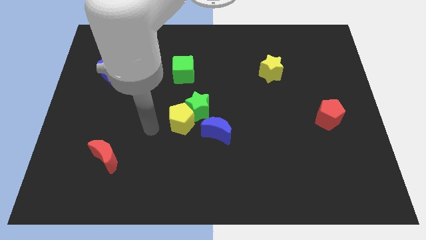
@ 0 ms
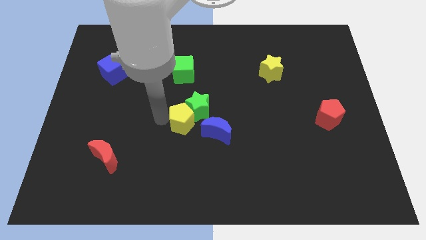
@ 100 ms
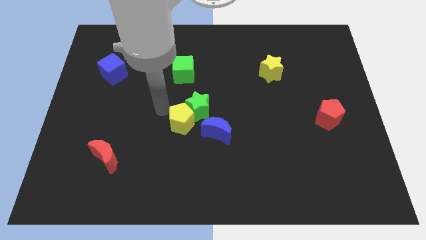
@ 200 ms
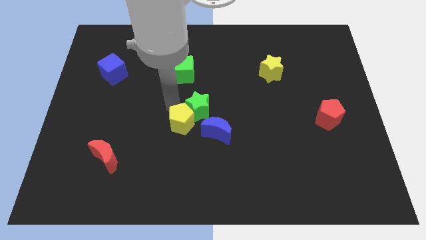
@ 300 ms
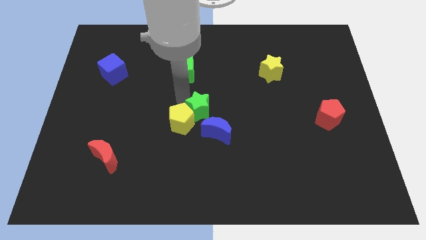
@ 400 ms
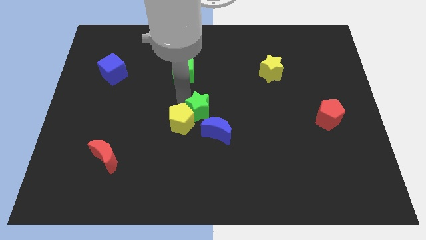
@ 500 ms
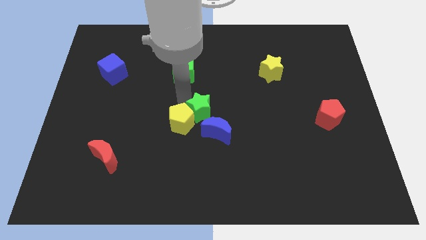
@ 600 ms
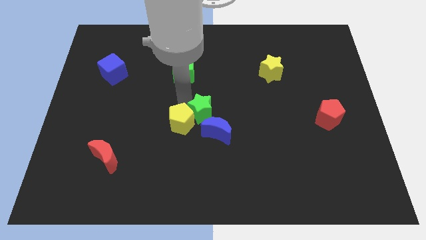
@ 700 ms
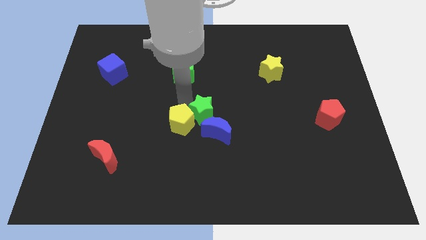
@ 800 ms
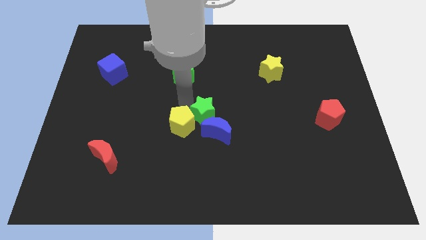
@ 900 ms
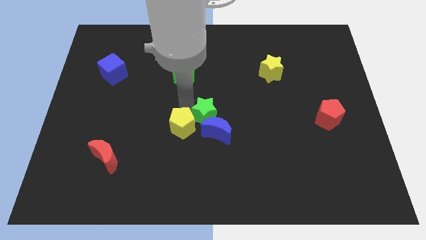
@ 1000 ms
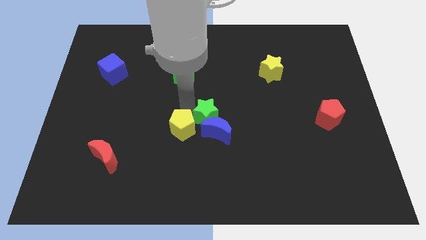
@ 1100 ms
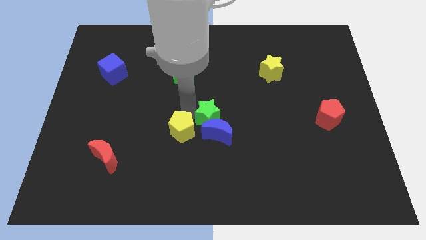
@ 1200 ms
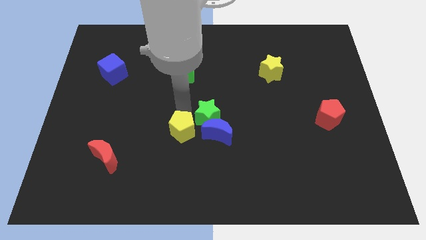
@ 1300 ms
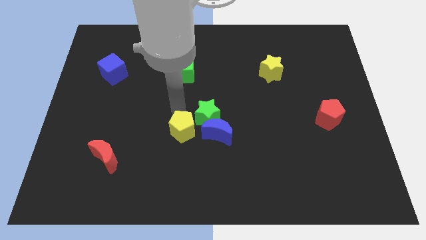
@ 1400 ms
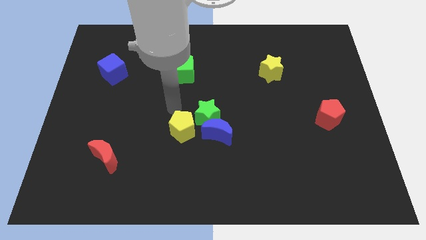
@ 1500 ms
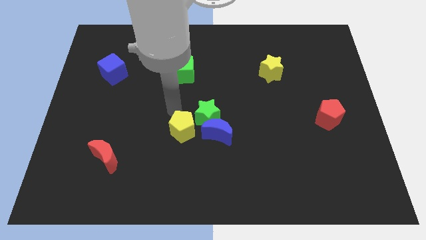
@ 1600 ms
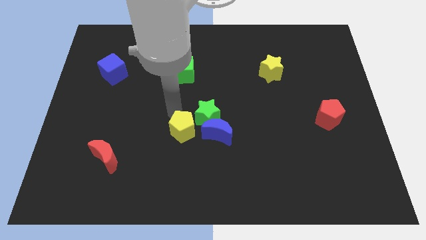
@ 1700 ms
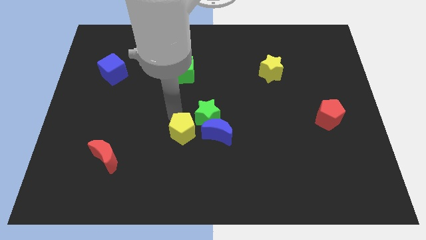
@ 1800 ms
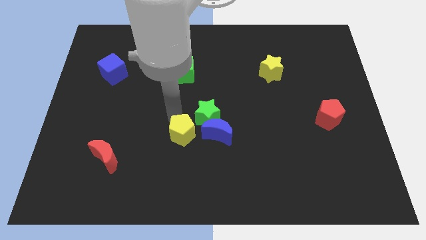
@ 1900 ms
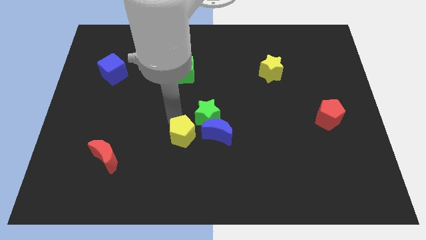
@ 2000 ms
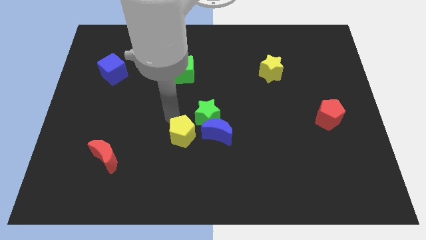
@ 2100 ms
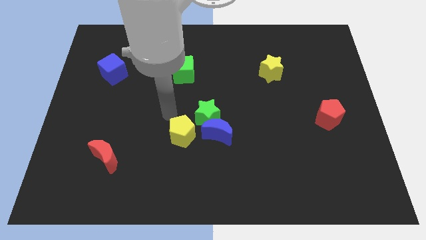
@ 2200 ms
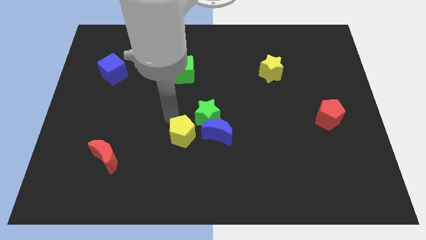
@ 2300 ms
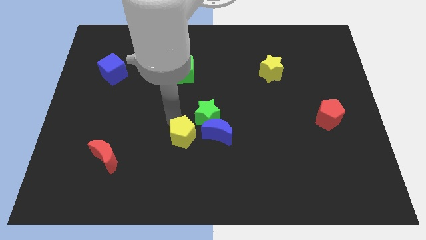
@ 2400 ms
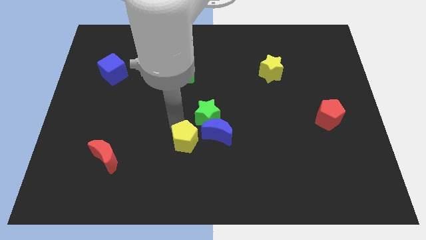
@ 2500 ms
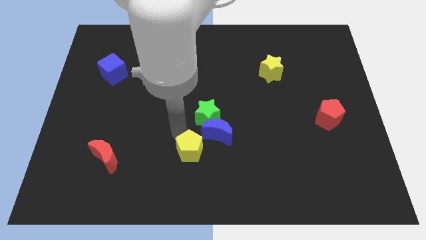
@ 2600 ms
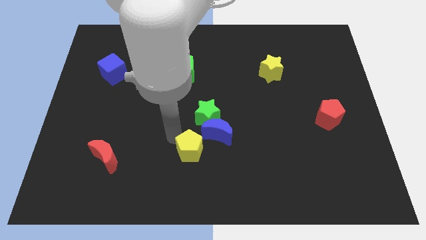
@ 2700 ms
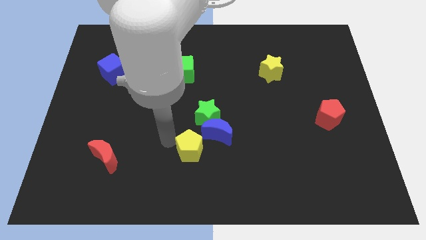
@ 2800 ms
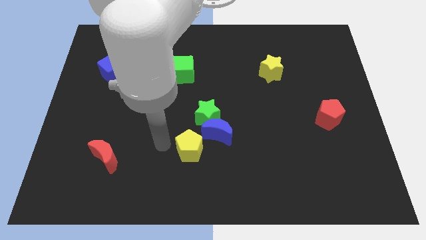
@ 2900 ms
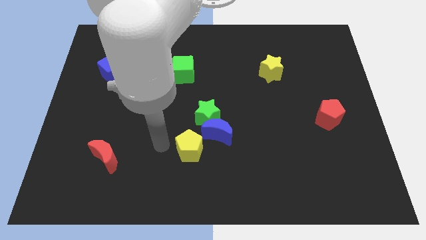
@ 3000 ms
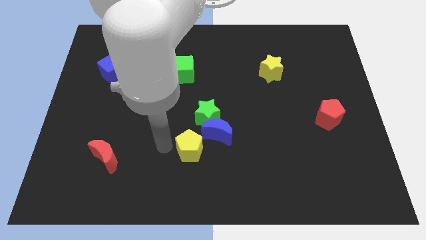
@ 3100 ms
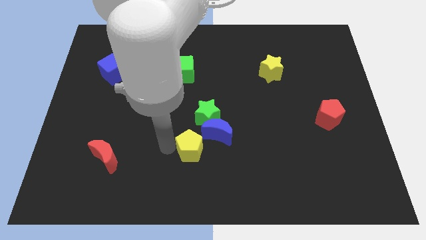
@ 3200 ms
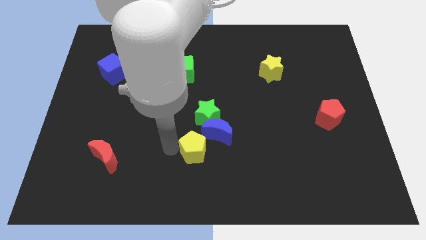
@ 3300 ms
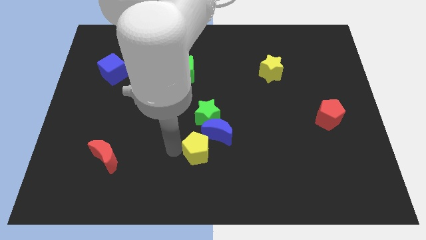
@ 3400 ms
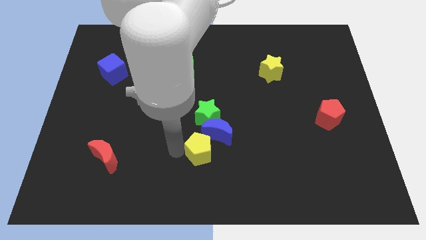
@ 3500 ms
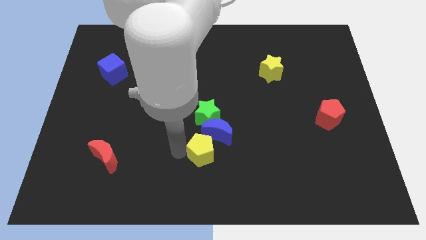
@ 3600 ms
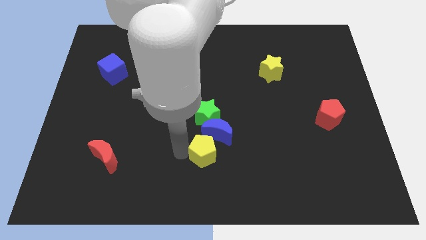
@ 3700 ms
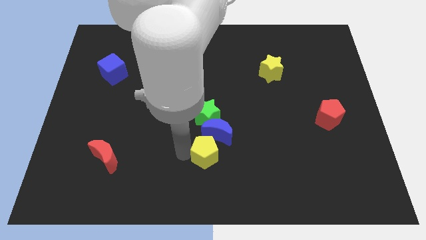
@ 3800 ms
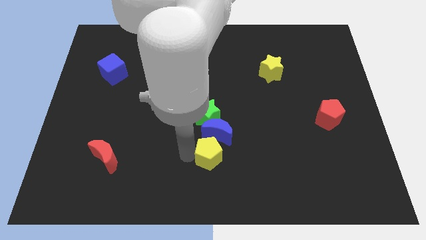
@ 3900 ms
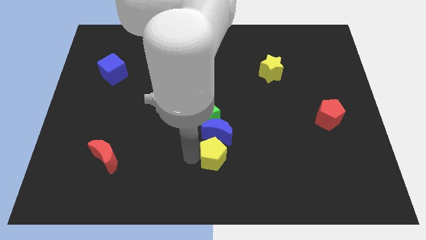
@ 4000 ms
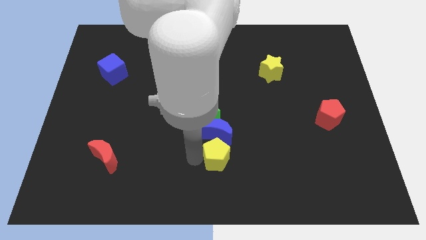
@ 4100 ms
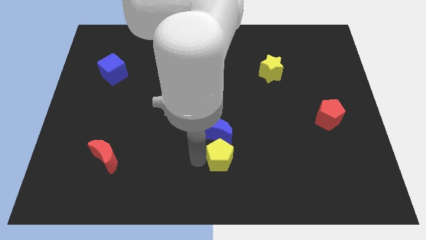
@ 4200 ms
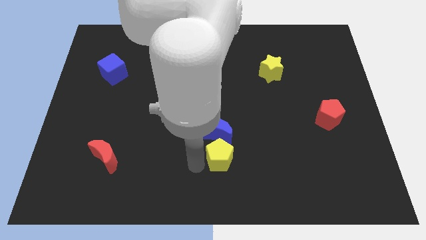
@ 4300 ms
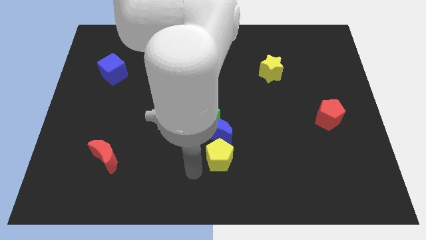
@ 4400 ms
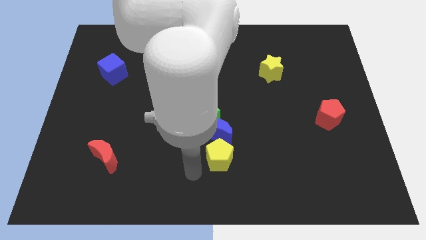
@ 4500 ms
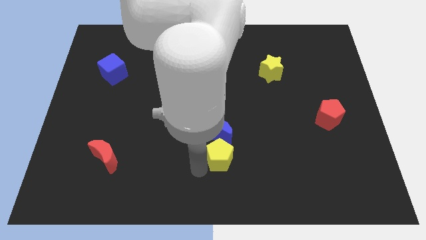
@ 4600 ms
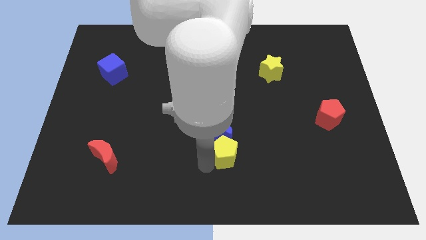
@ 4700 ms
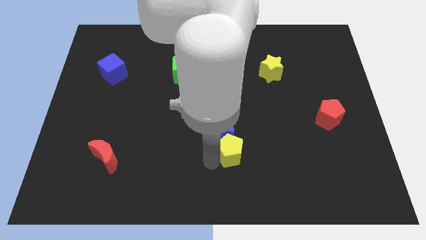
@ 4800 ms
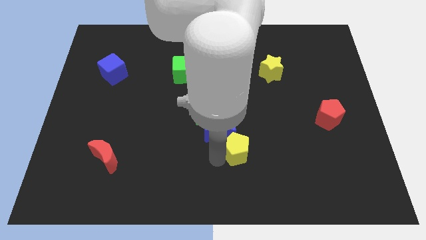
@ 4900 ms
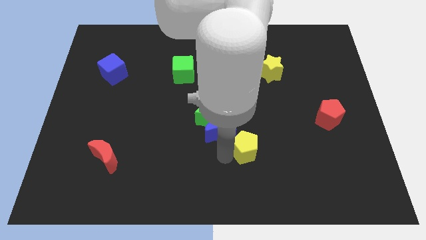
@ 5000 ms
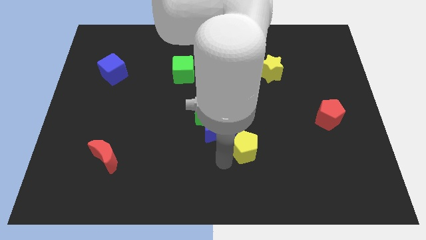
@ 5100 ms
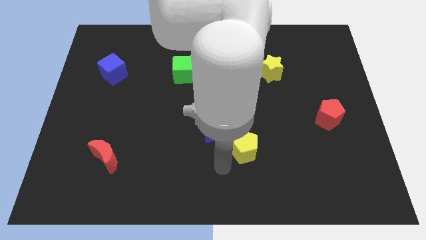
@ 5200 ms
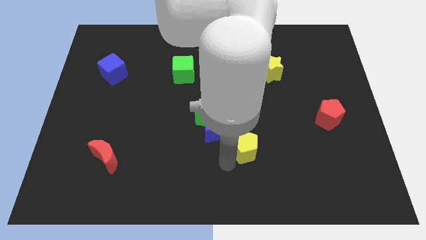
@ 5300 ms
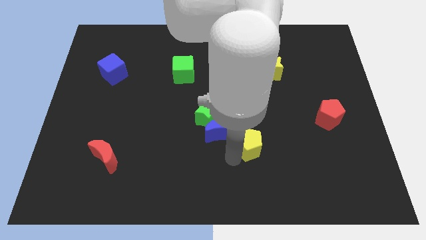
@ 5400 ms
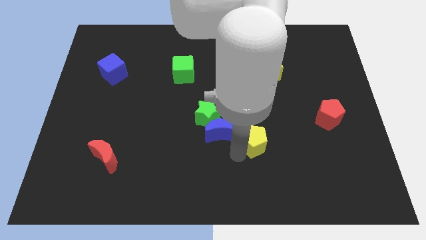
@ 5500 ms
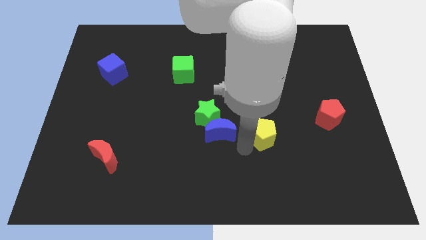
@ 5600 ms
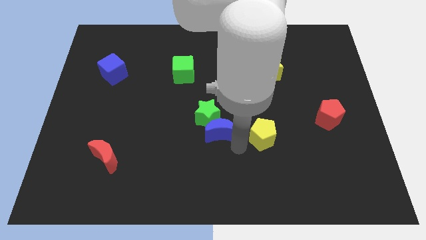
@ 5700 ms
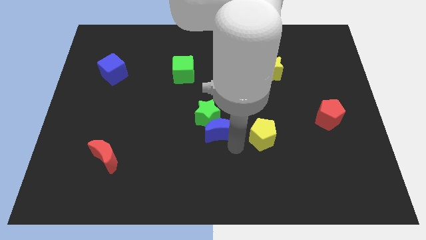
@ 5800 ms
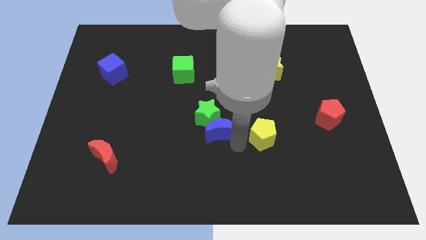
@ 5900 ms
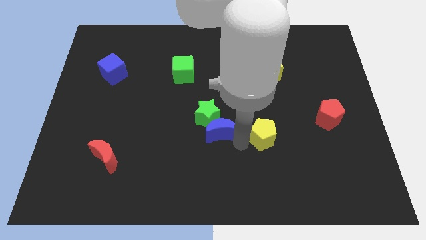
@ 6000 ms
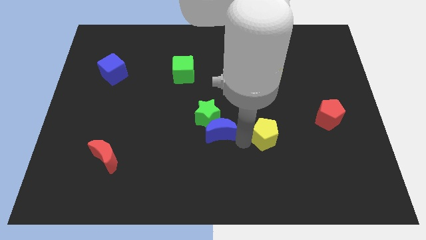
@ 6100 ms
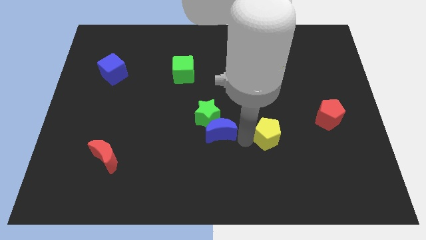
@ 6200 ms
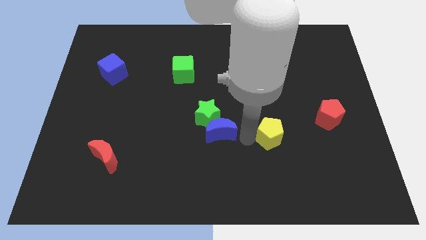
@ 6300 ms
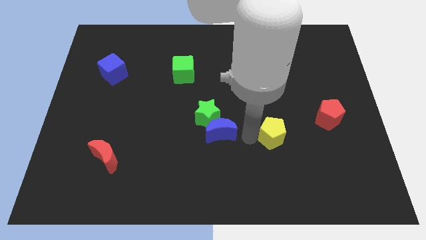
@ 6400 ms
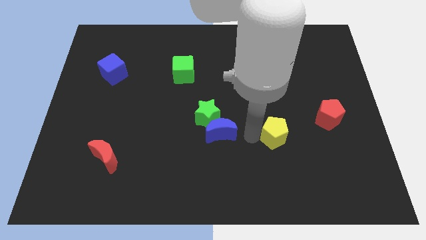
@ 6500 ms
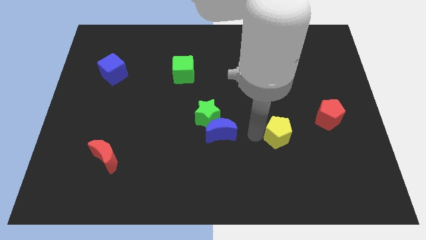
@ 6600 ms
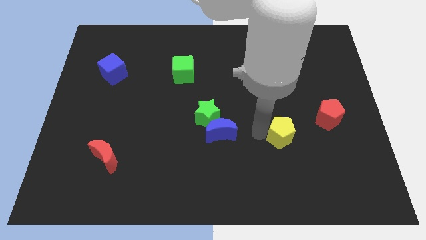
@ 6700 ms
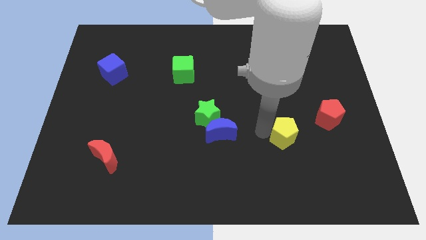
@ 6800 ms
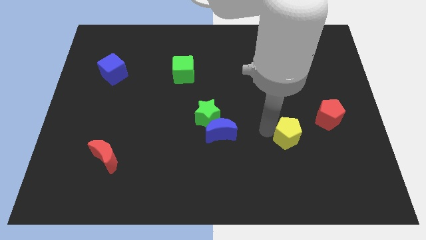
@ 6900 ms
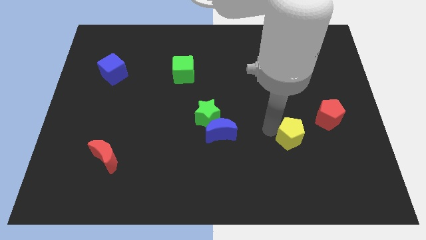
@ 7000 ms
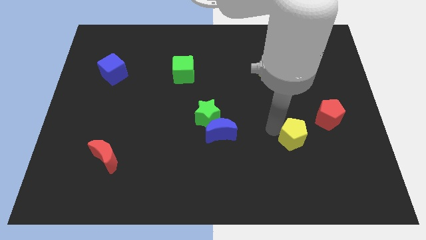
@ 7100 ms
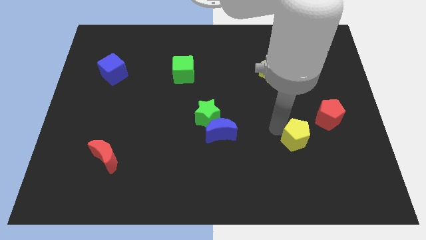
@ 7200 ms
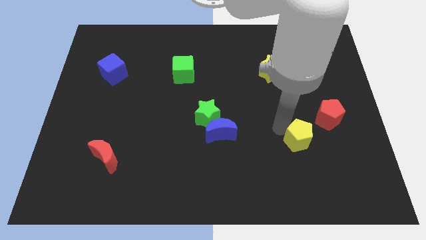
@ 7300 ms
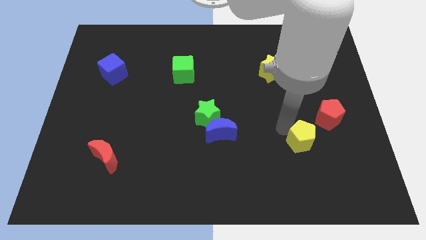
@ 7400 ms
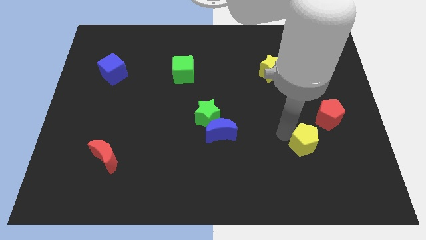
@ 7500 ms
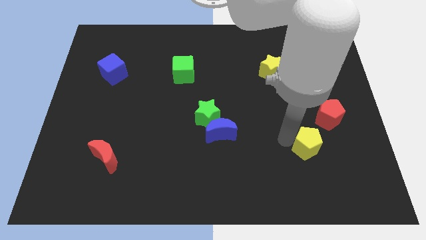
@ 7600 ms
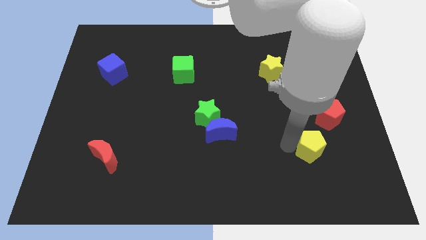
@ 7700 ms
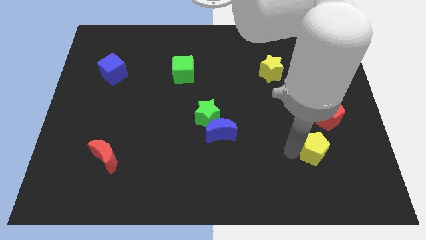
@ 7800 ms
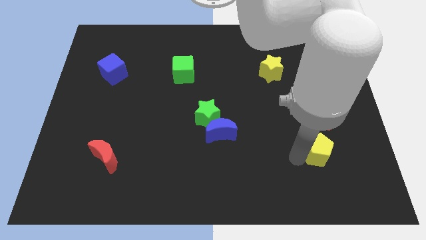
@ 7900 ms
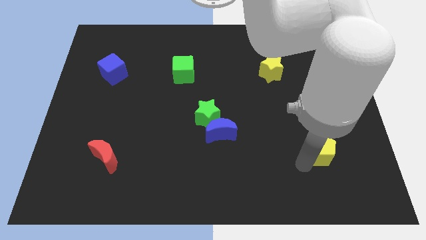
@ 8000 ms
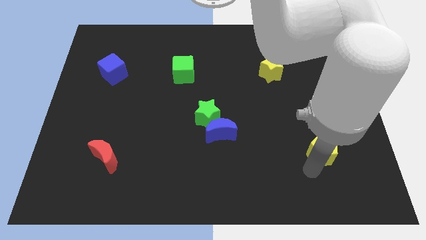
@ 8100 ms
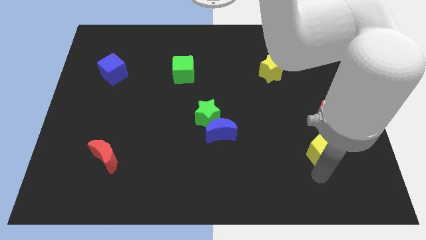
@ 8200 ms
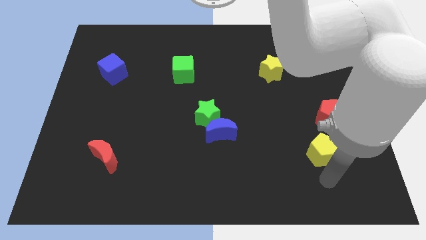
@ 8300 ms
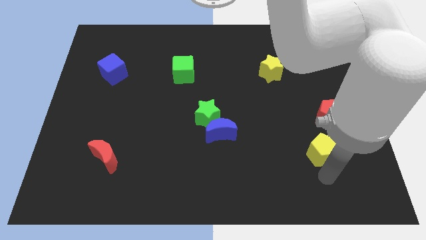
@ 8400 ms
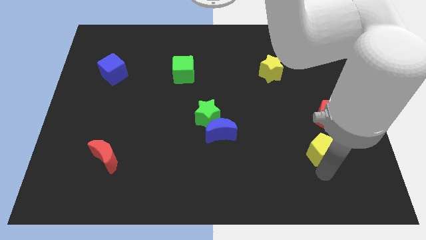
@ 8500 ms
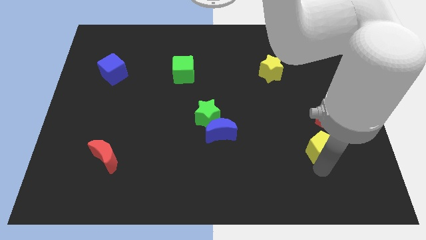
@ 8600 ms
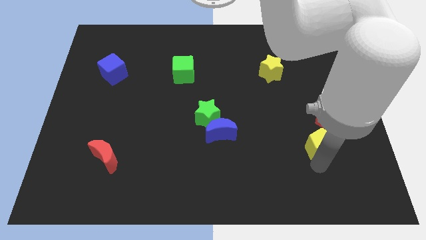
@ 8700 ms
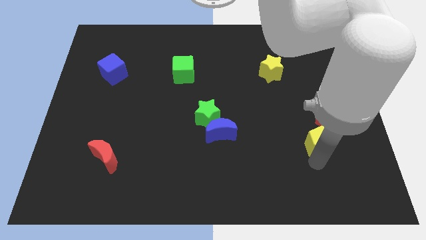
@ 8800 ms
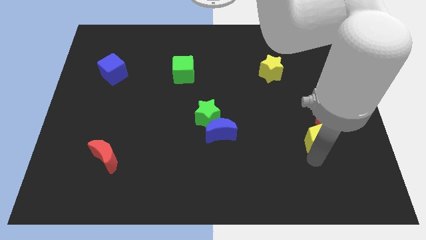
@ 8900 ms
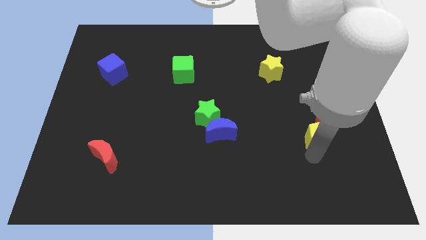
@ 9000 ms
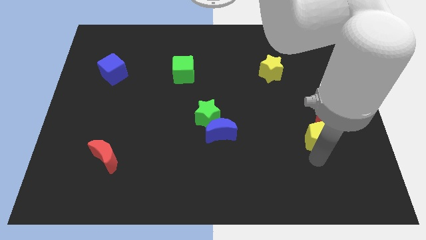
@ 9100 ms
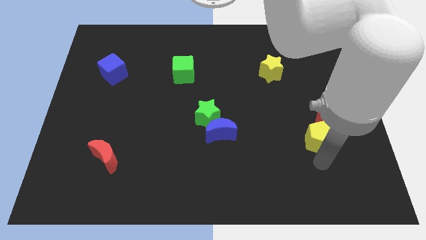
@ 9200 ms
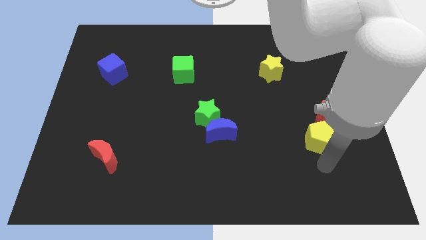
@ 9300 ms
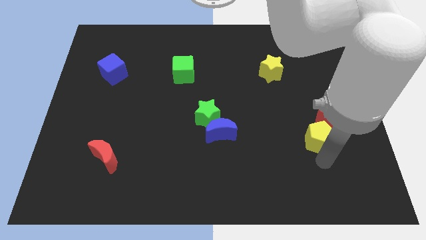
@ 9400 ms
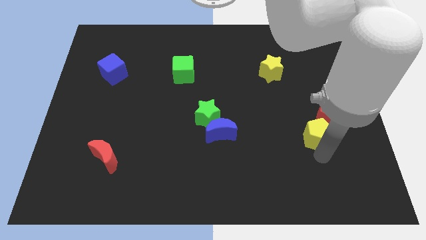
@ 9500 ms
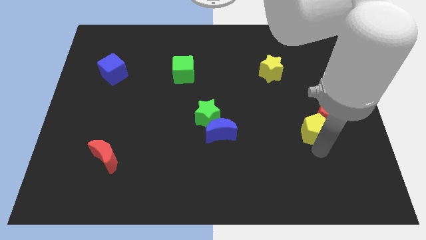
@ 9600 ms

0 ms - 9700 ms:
put the yellow pentagon to the red pentagon
